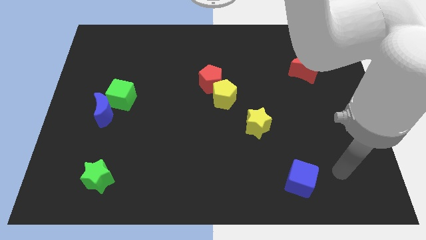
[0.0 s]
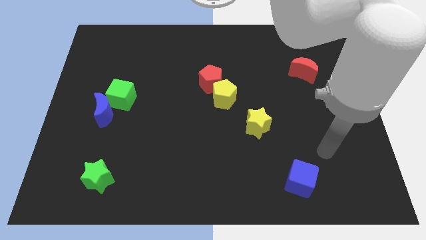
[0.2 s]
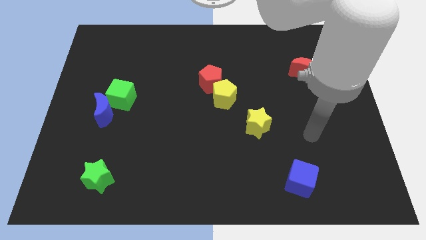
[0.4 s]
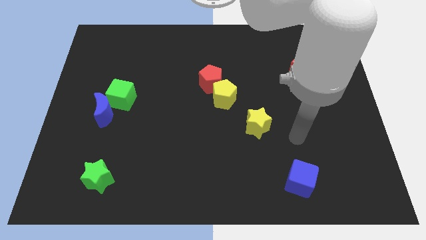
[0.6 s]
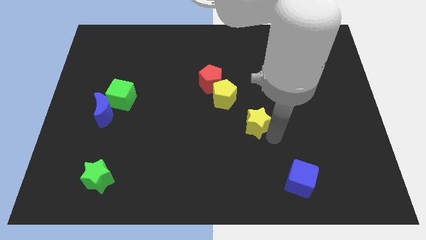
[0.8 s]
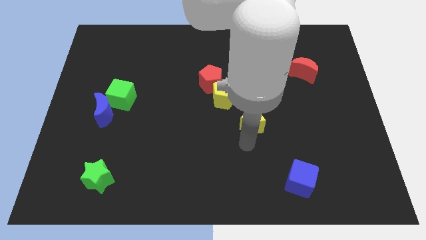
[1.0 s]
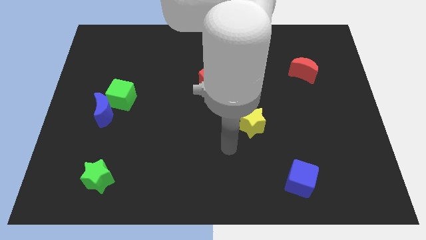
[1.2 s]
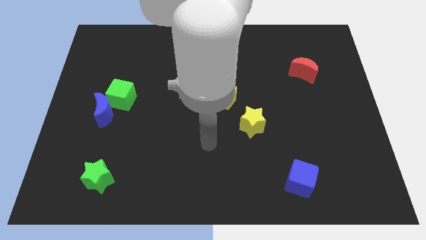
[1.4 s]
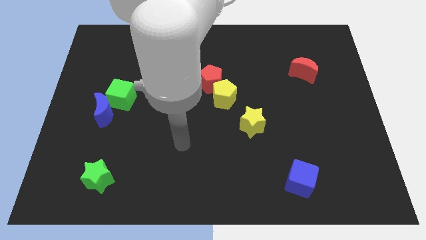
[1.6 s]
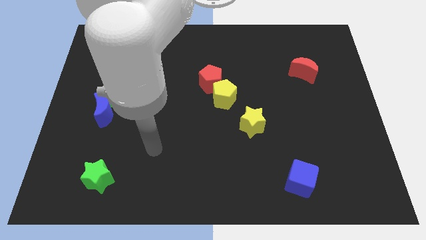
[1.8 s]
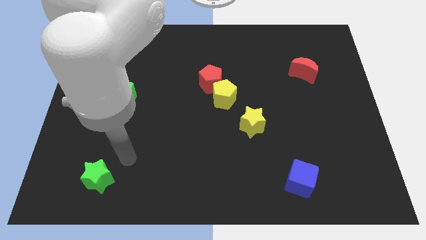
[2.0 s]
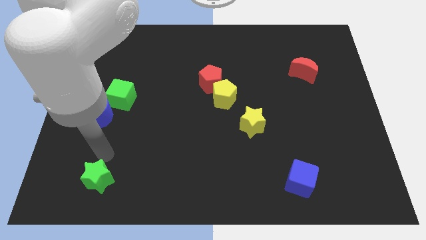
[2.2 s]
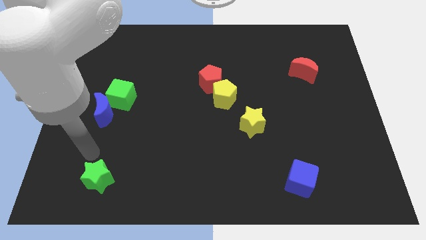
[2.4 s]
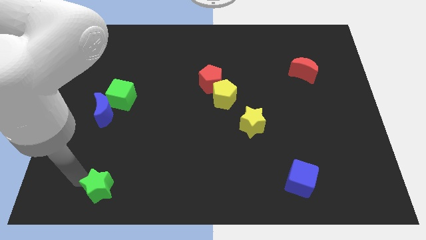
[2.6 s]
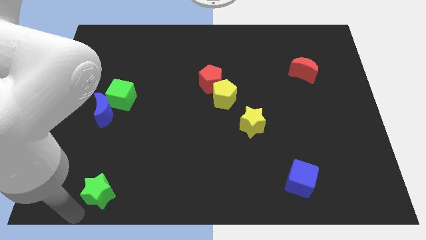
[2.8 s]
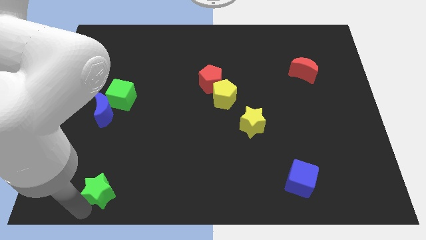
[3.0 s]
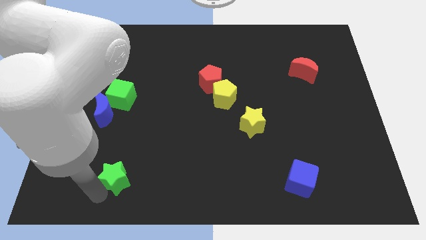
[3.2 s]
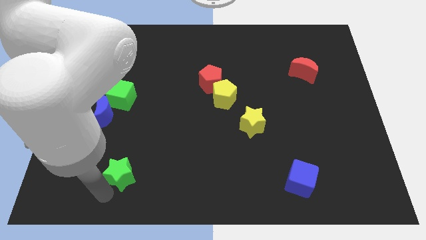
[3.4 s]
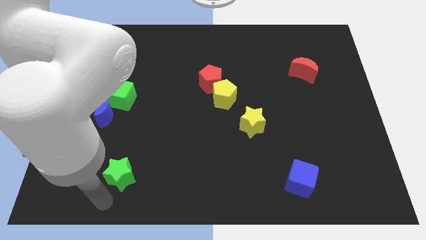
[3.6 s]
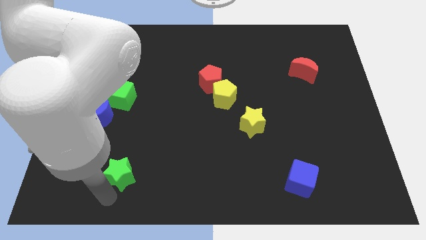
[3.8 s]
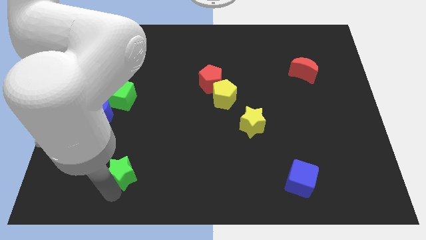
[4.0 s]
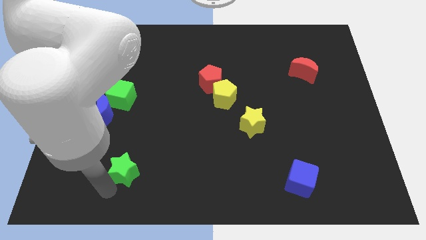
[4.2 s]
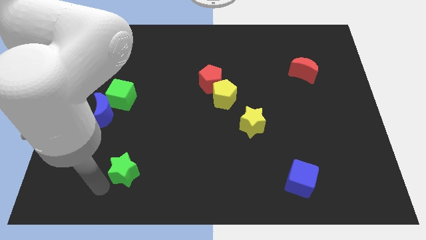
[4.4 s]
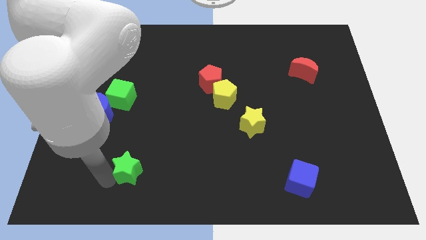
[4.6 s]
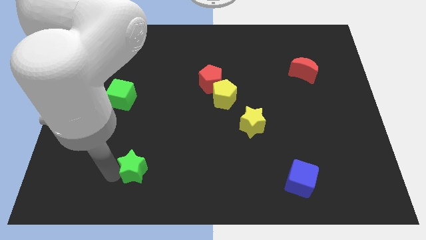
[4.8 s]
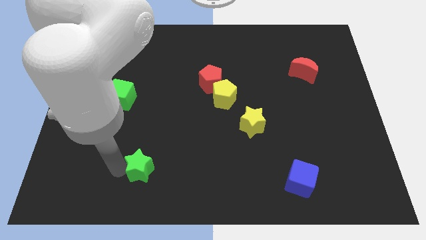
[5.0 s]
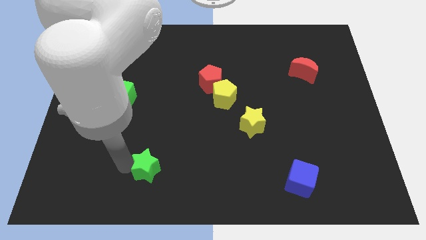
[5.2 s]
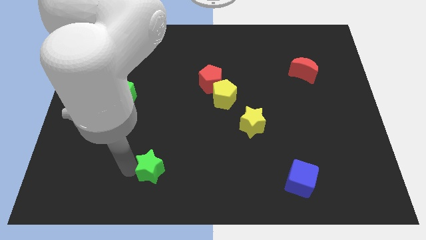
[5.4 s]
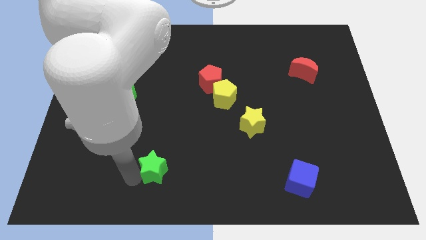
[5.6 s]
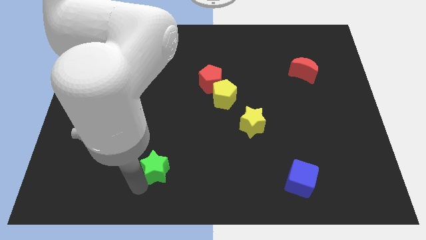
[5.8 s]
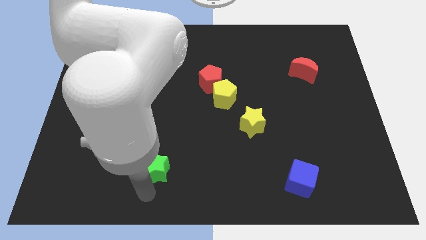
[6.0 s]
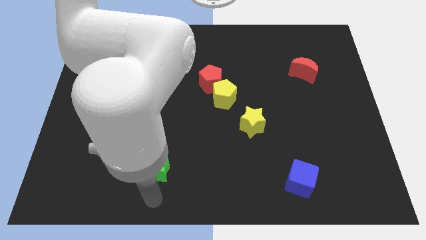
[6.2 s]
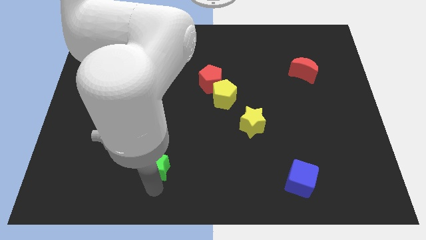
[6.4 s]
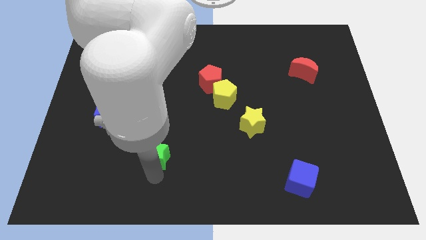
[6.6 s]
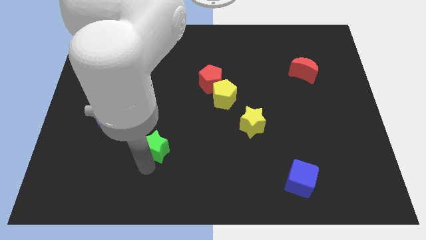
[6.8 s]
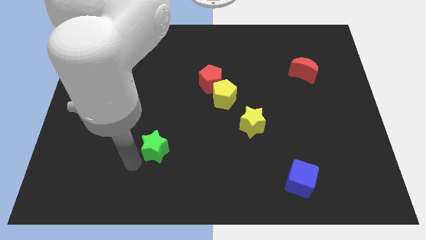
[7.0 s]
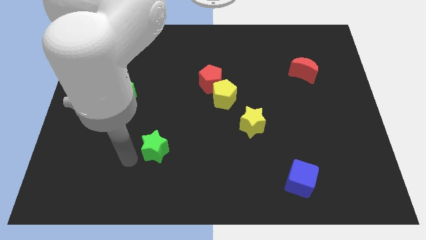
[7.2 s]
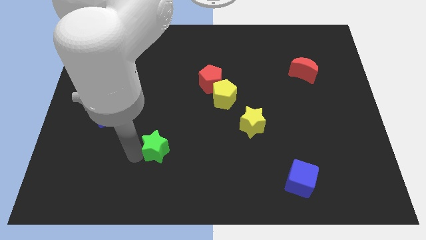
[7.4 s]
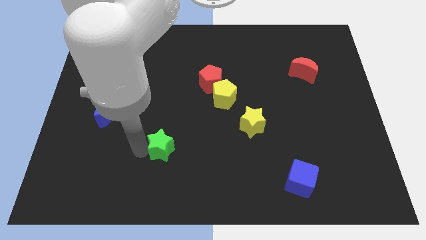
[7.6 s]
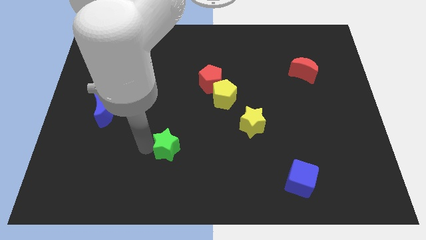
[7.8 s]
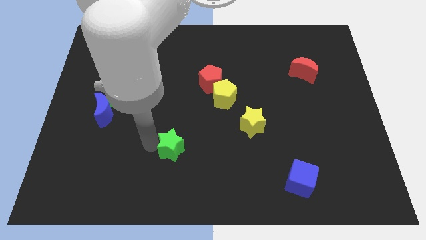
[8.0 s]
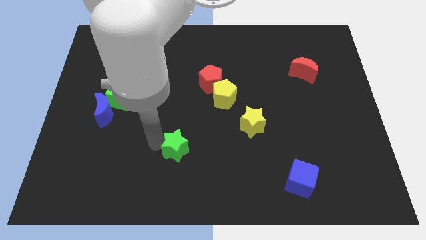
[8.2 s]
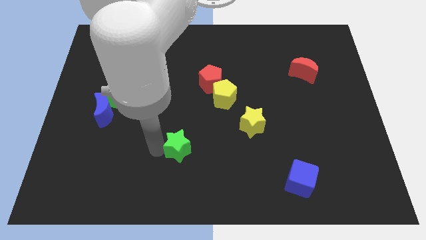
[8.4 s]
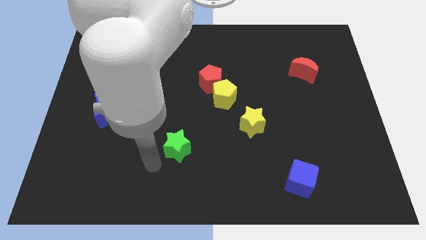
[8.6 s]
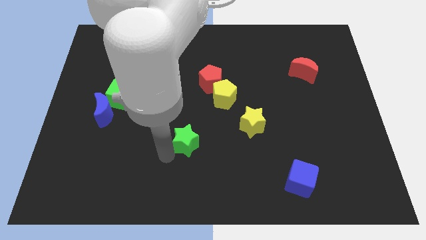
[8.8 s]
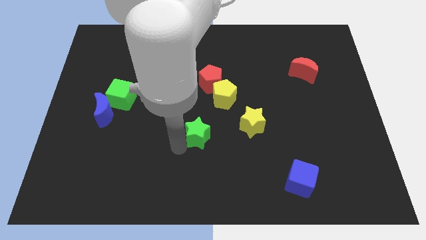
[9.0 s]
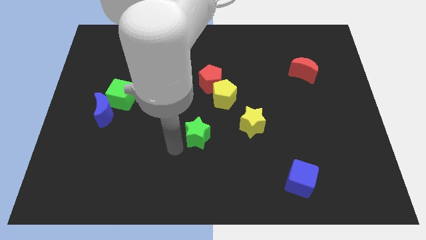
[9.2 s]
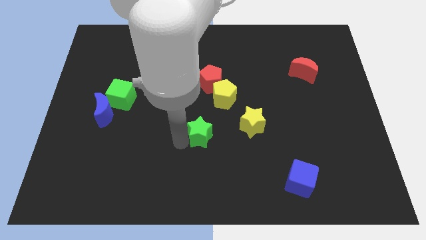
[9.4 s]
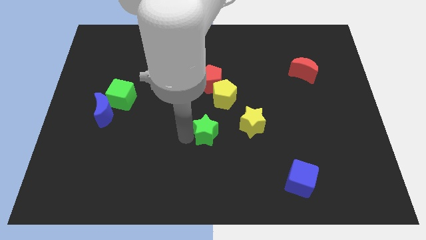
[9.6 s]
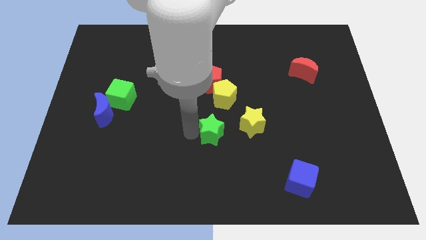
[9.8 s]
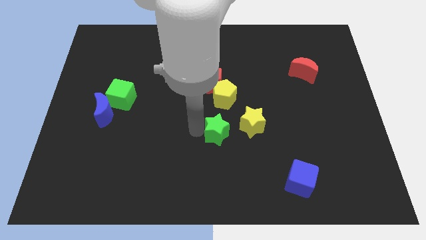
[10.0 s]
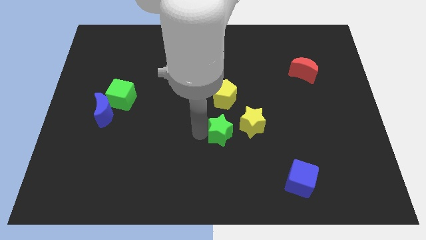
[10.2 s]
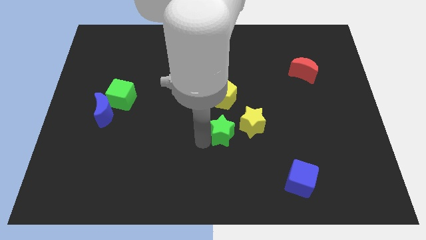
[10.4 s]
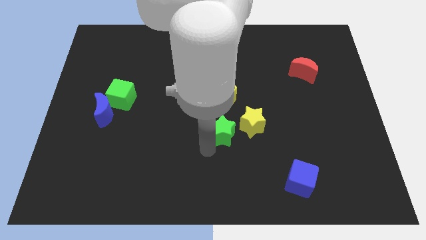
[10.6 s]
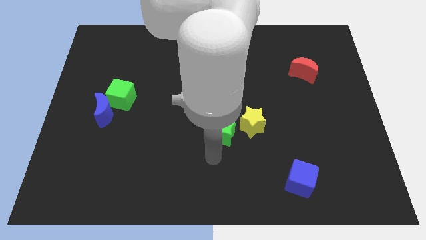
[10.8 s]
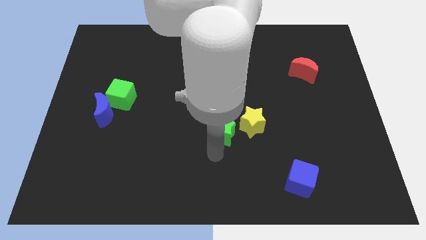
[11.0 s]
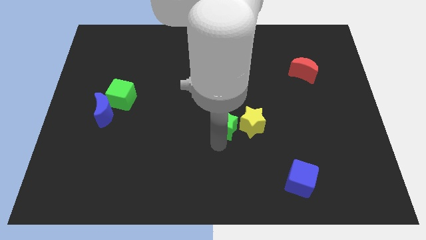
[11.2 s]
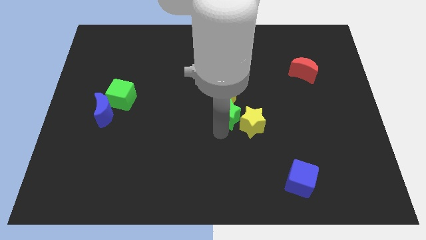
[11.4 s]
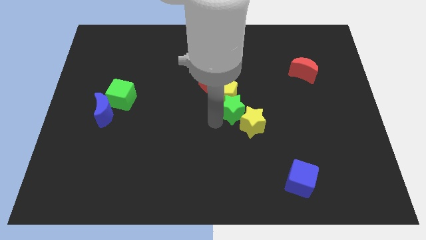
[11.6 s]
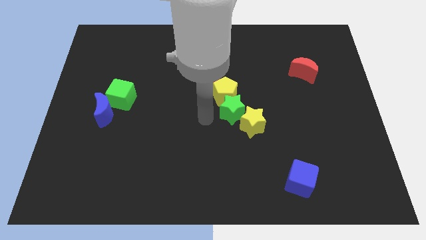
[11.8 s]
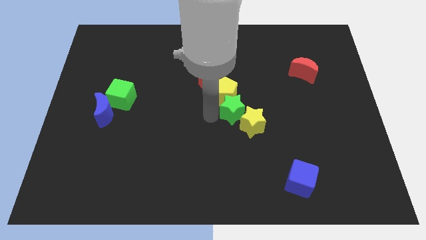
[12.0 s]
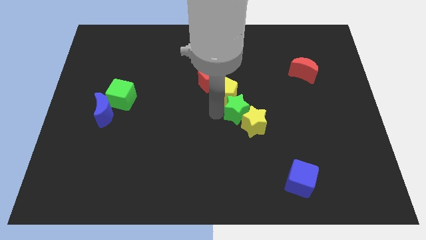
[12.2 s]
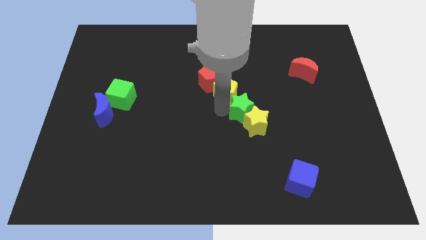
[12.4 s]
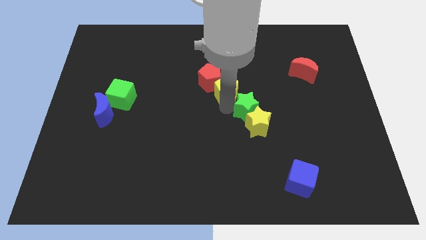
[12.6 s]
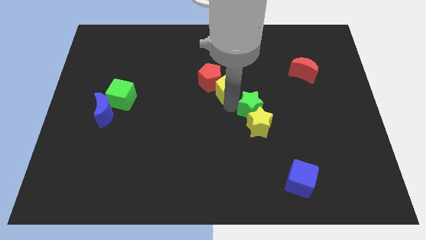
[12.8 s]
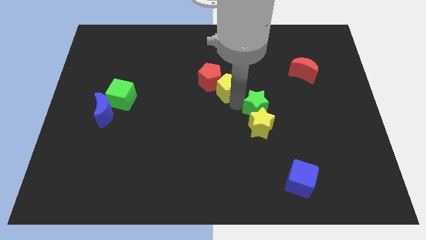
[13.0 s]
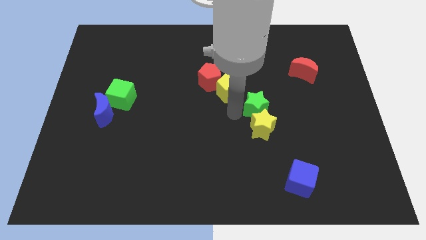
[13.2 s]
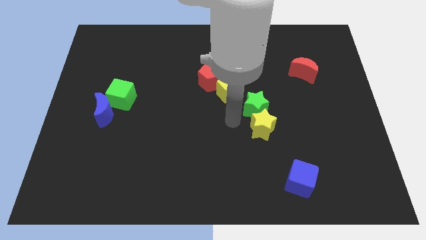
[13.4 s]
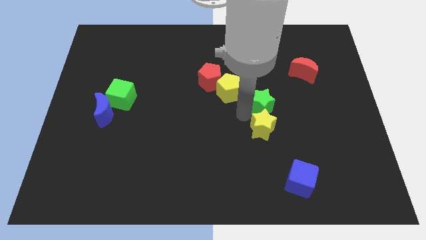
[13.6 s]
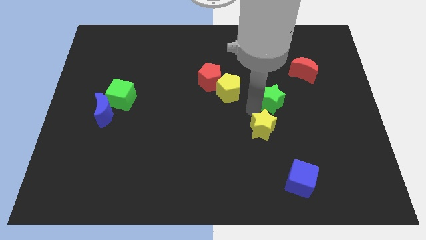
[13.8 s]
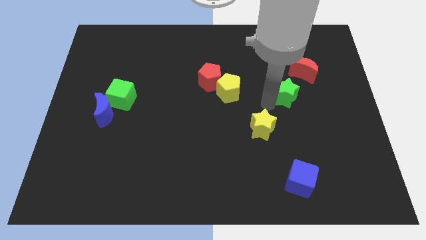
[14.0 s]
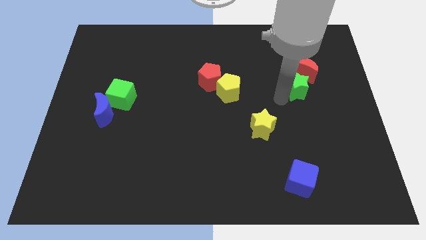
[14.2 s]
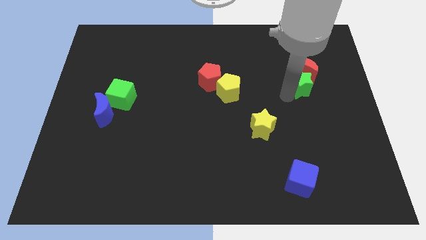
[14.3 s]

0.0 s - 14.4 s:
push the green star close to the red moon

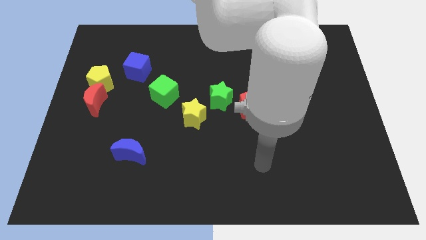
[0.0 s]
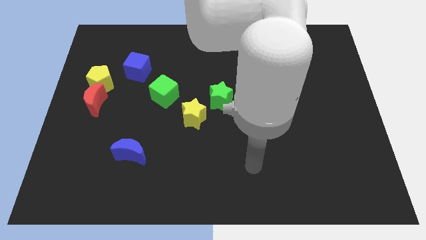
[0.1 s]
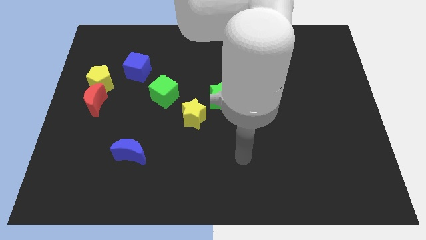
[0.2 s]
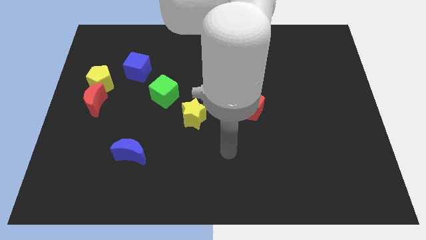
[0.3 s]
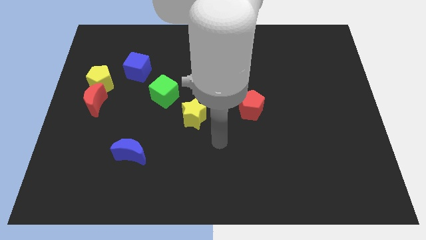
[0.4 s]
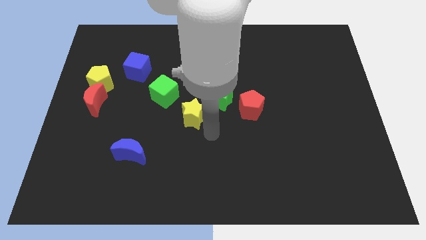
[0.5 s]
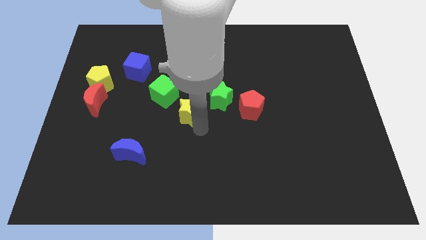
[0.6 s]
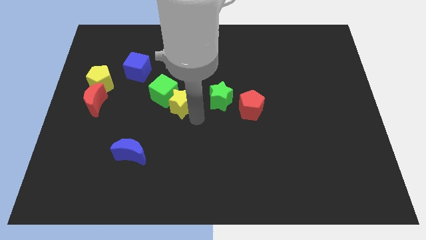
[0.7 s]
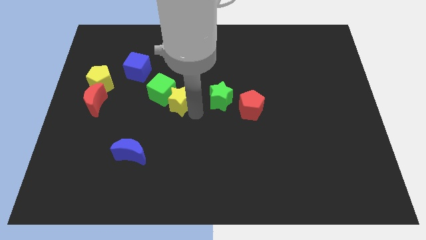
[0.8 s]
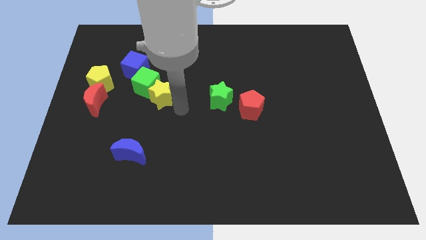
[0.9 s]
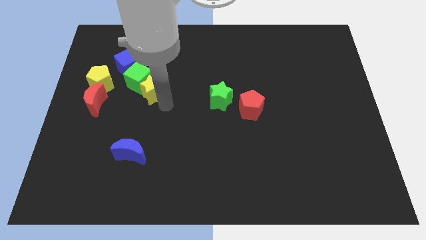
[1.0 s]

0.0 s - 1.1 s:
slide the green cube to the blue cube
